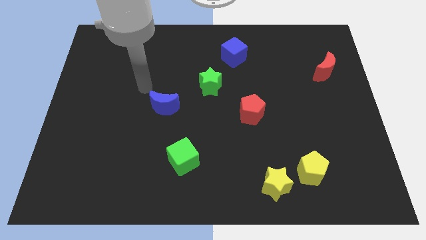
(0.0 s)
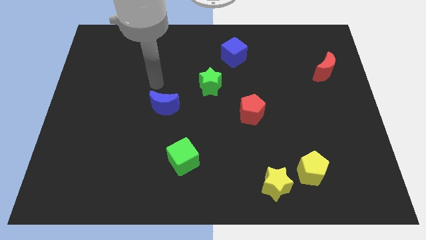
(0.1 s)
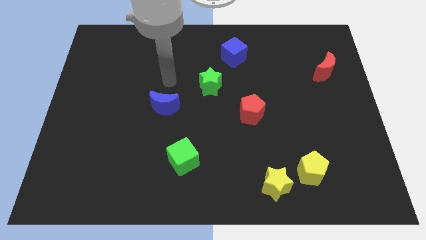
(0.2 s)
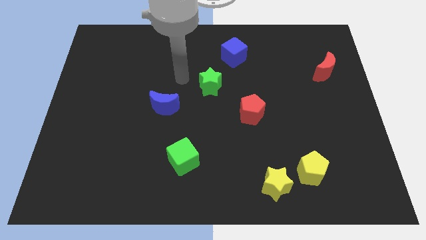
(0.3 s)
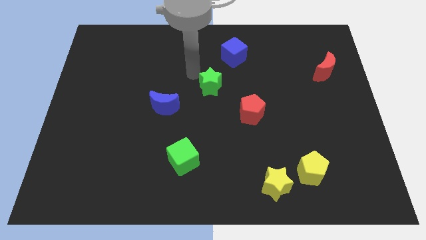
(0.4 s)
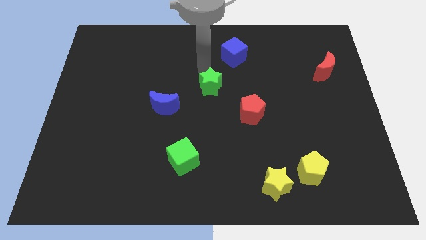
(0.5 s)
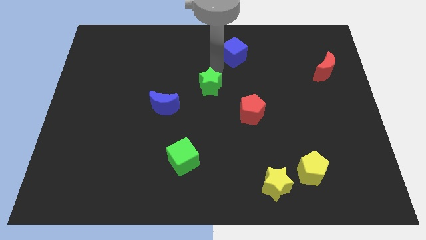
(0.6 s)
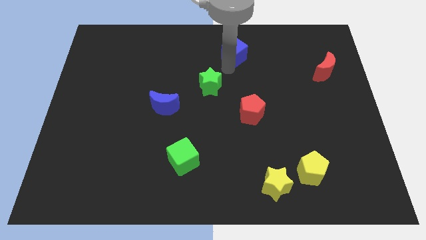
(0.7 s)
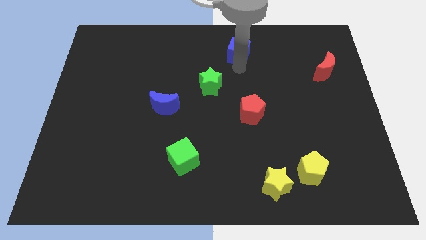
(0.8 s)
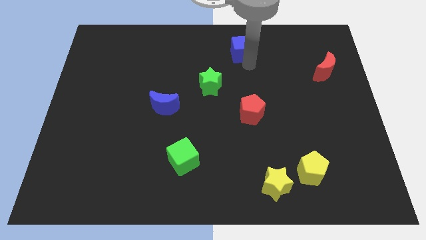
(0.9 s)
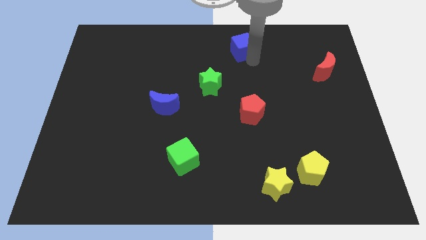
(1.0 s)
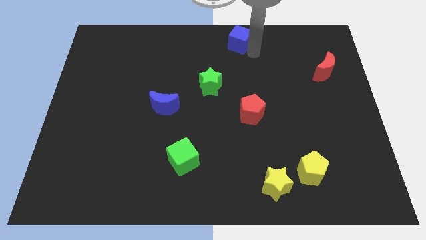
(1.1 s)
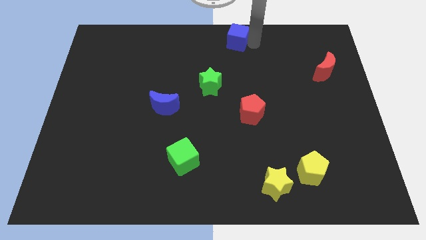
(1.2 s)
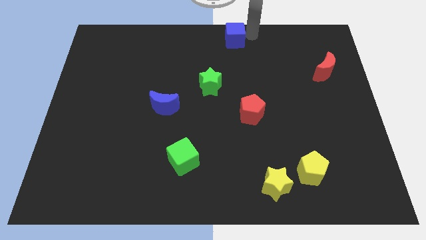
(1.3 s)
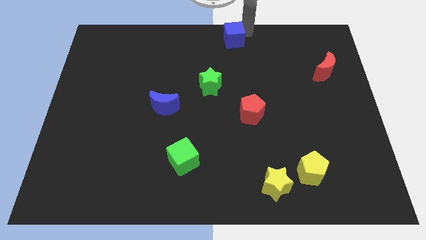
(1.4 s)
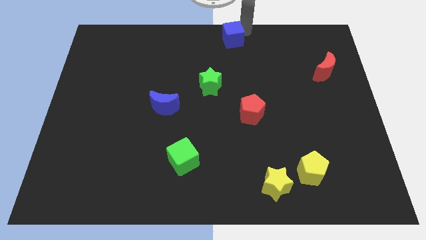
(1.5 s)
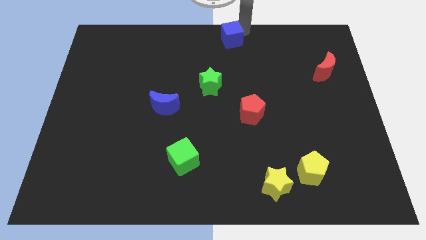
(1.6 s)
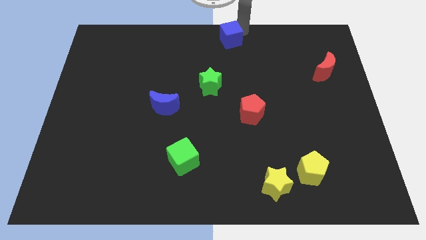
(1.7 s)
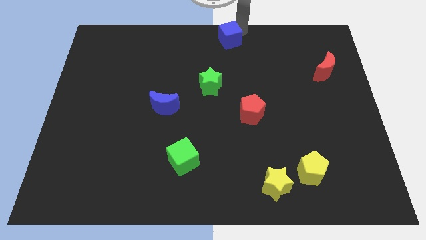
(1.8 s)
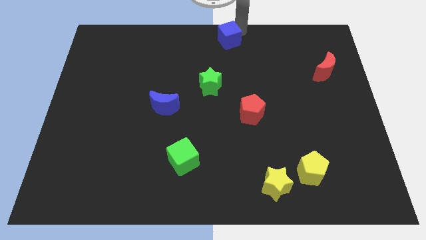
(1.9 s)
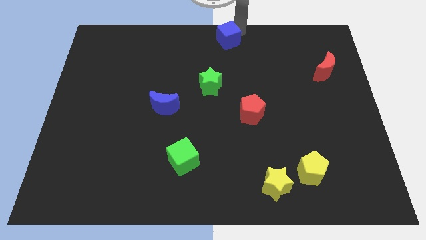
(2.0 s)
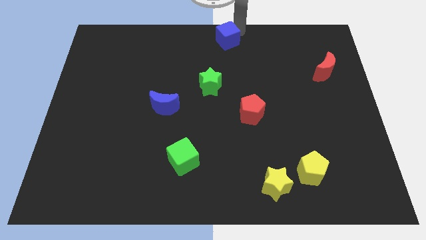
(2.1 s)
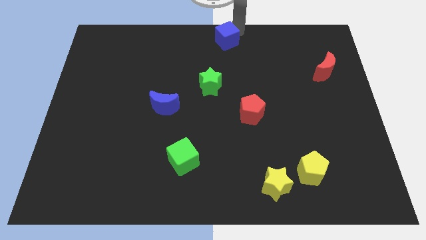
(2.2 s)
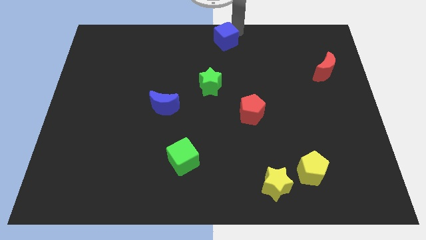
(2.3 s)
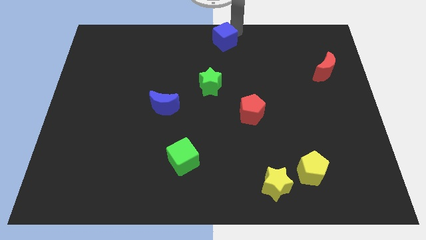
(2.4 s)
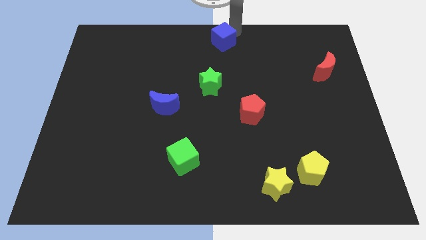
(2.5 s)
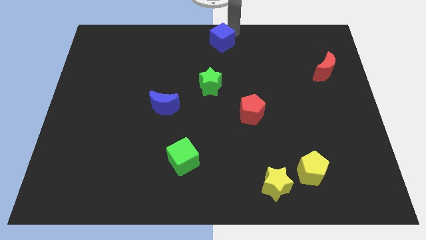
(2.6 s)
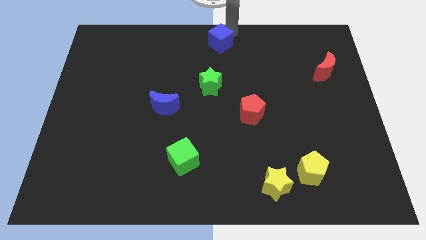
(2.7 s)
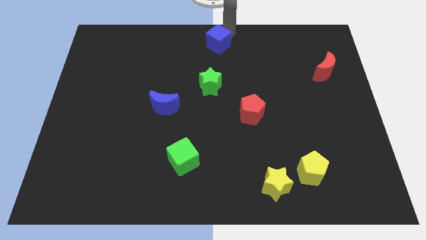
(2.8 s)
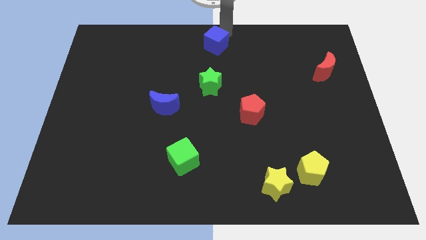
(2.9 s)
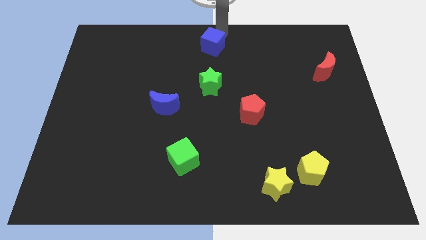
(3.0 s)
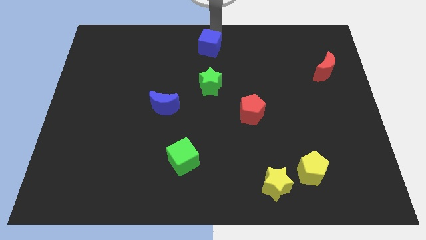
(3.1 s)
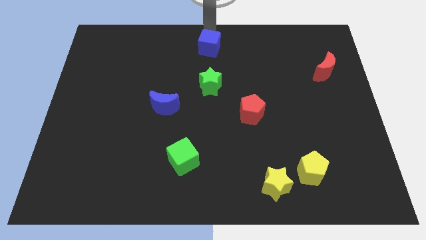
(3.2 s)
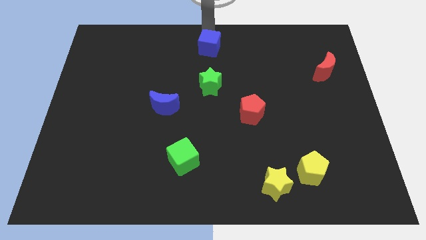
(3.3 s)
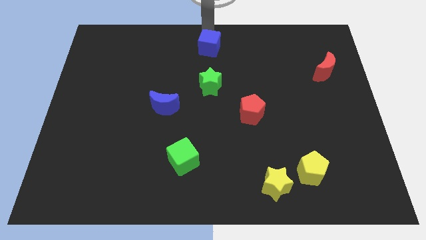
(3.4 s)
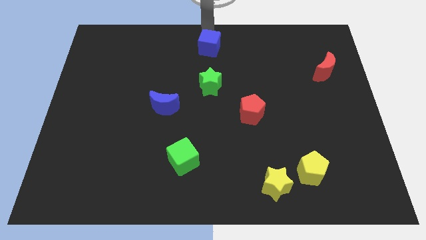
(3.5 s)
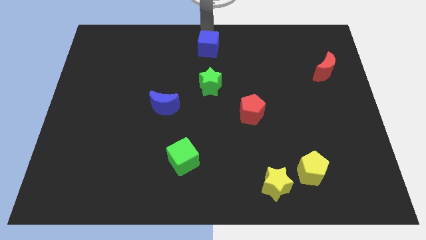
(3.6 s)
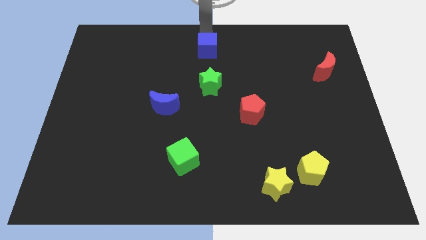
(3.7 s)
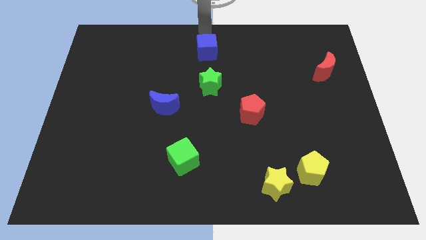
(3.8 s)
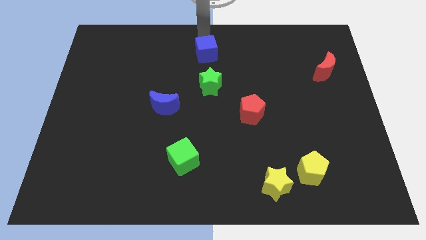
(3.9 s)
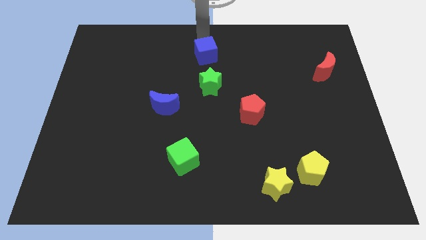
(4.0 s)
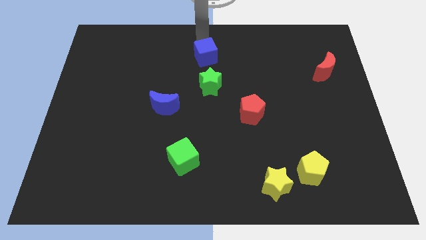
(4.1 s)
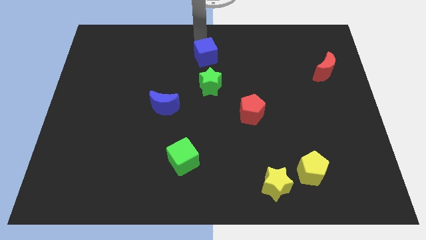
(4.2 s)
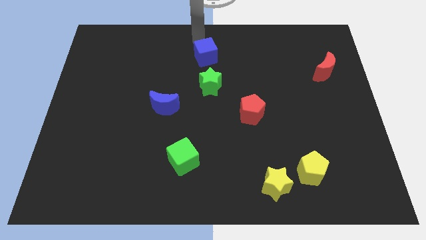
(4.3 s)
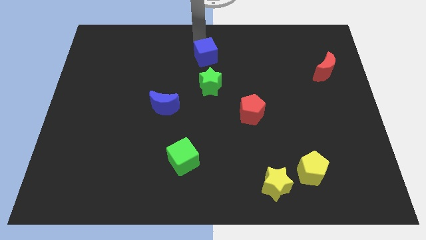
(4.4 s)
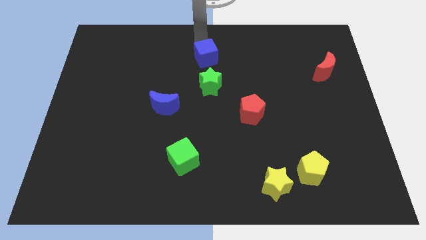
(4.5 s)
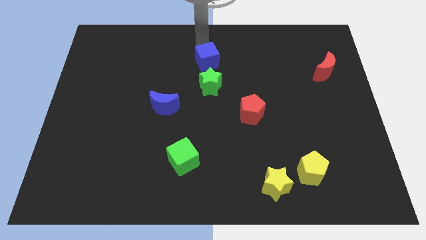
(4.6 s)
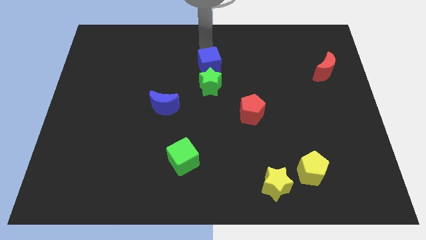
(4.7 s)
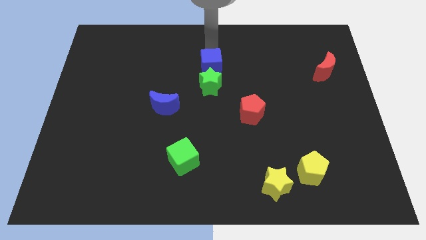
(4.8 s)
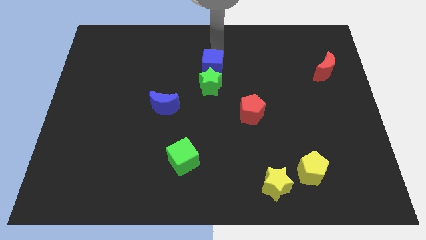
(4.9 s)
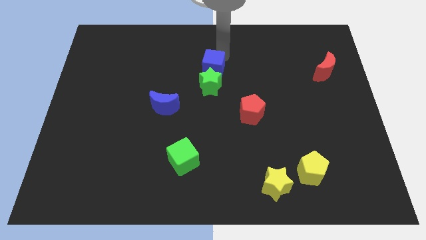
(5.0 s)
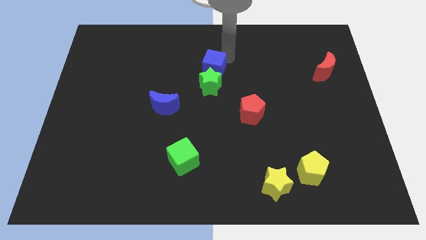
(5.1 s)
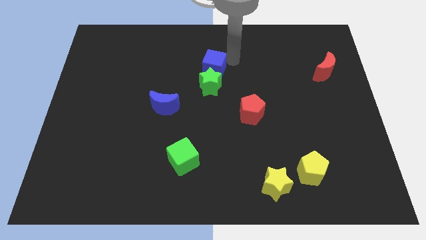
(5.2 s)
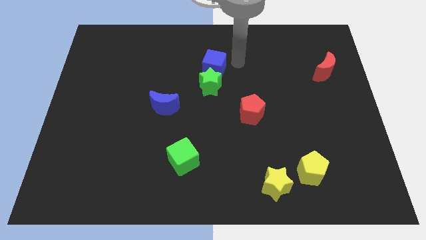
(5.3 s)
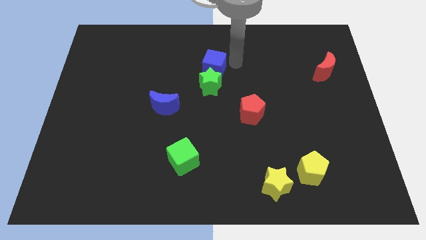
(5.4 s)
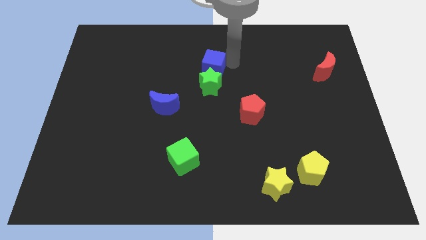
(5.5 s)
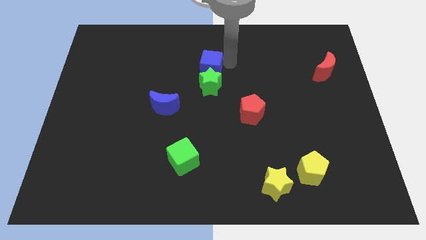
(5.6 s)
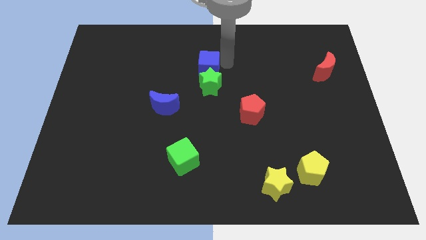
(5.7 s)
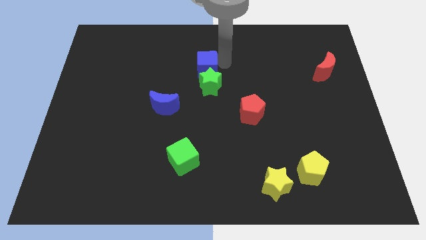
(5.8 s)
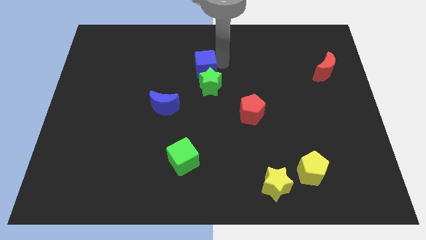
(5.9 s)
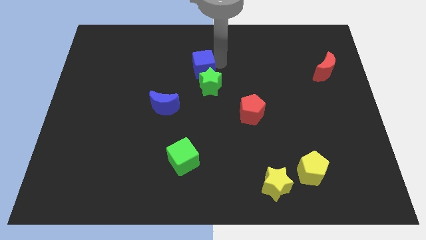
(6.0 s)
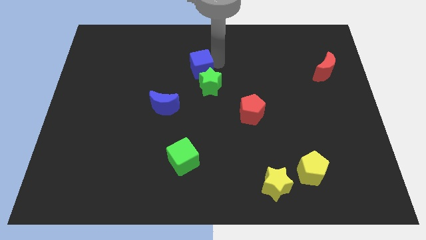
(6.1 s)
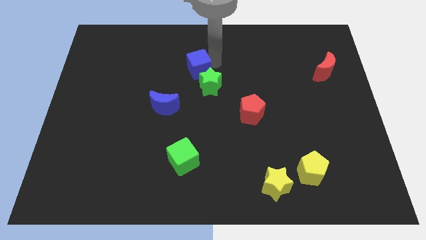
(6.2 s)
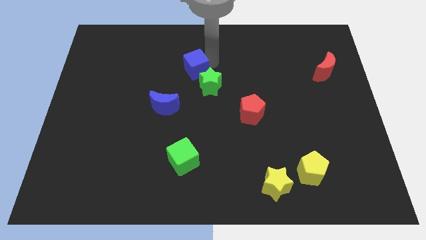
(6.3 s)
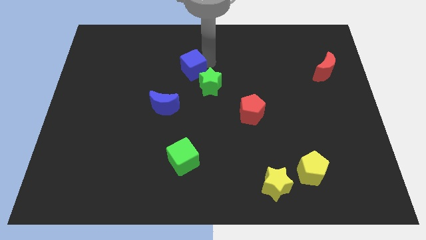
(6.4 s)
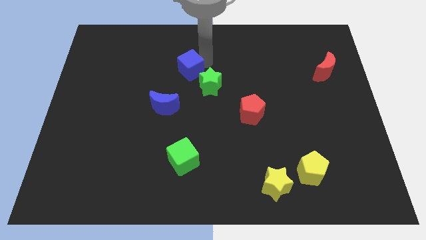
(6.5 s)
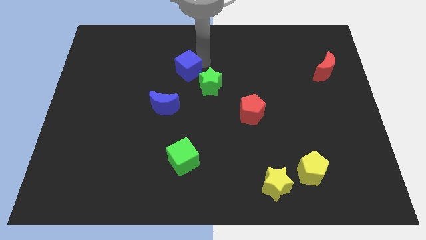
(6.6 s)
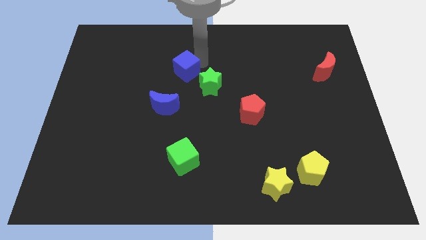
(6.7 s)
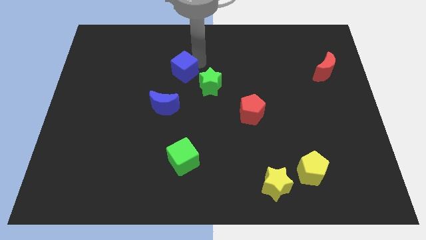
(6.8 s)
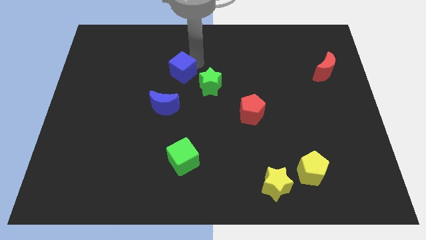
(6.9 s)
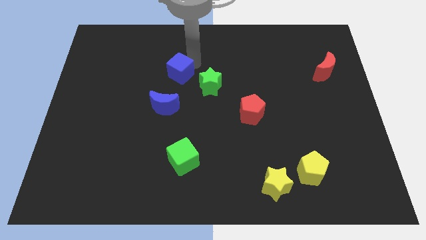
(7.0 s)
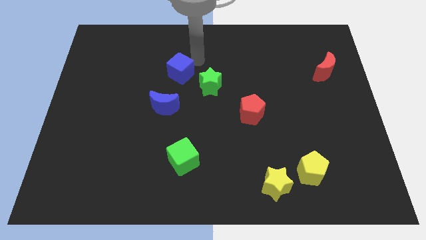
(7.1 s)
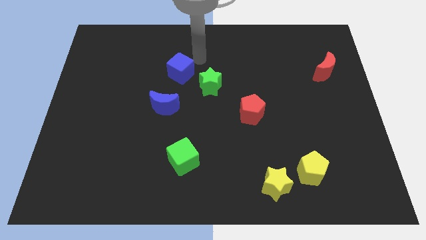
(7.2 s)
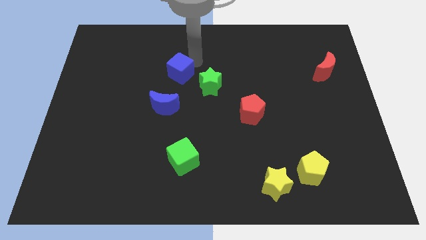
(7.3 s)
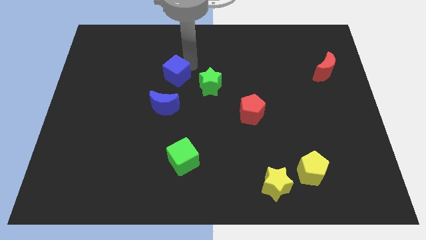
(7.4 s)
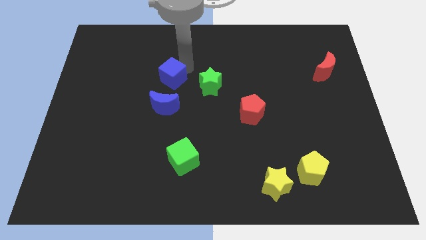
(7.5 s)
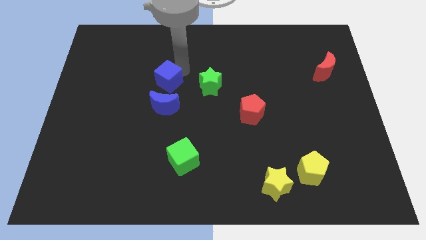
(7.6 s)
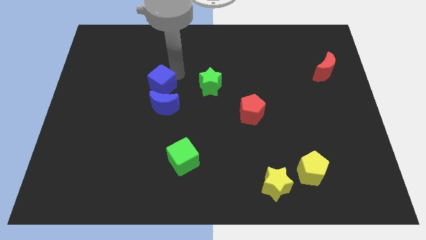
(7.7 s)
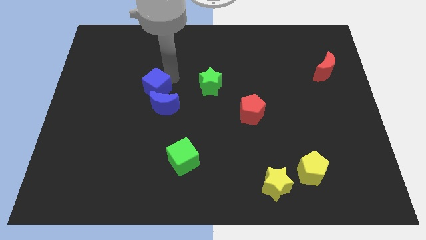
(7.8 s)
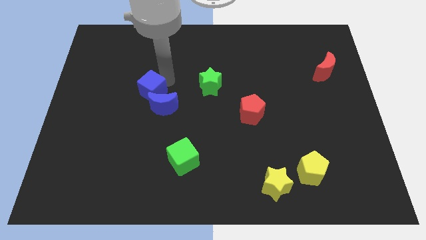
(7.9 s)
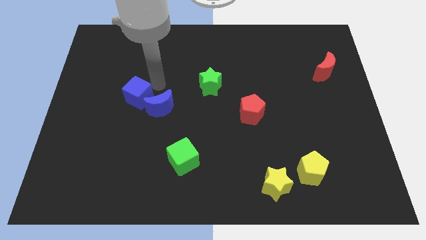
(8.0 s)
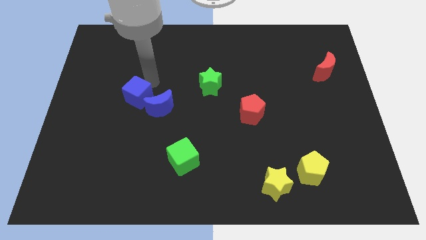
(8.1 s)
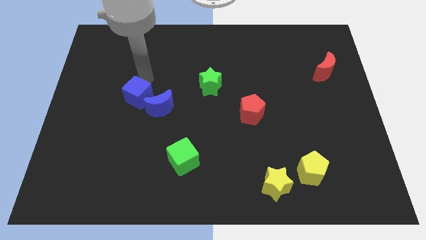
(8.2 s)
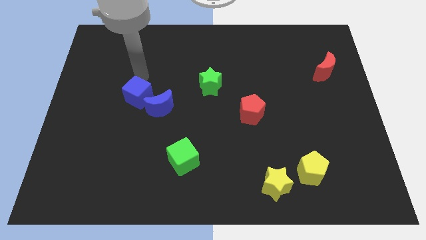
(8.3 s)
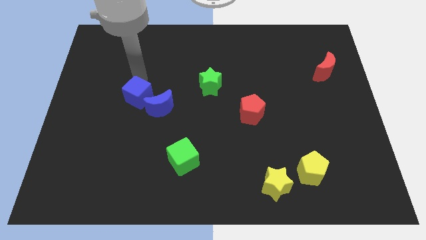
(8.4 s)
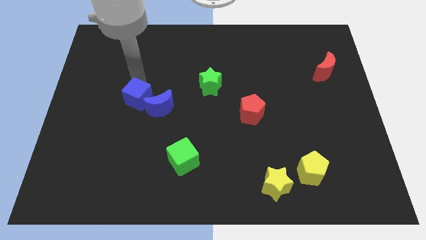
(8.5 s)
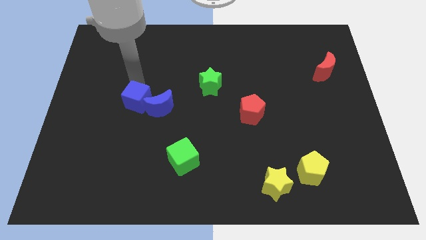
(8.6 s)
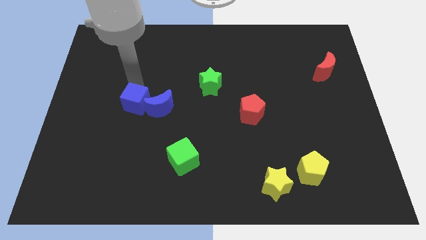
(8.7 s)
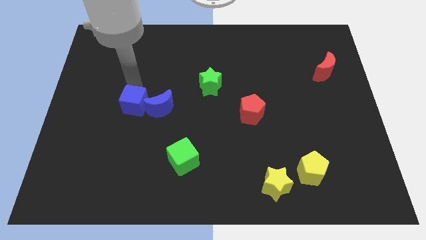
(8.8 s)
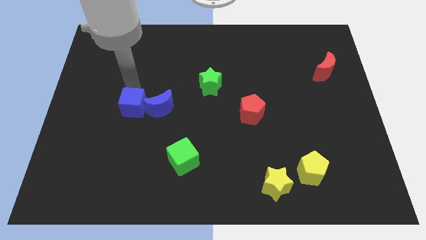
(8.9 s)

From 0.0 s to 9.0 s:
put the blue cube to the bottom left of the blue moon
